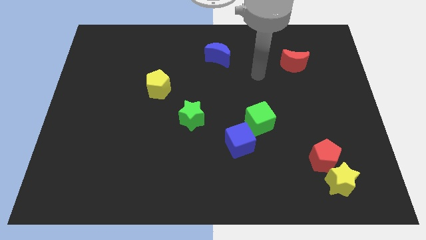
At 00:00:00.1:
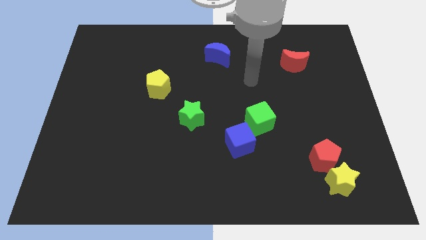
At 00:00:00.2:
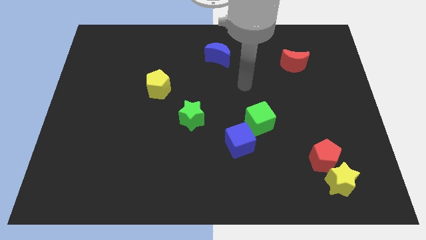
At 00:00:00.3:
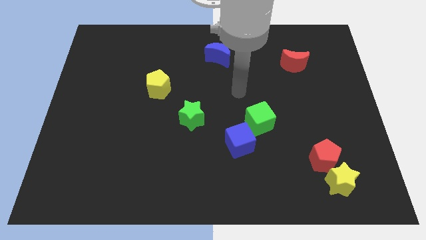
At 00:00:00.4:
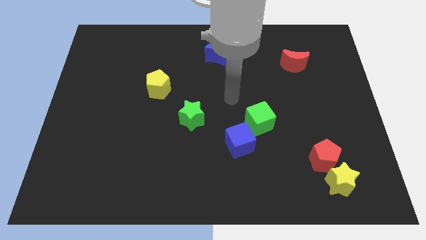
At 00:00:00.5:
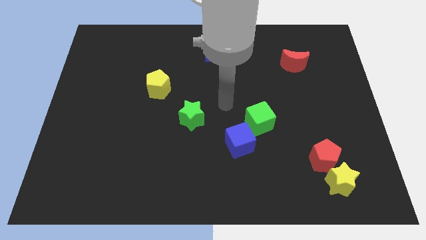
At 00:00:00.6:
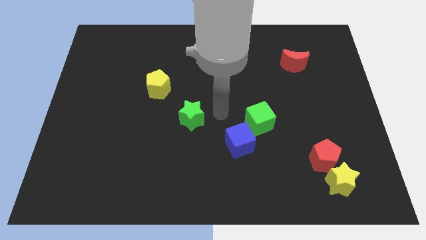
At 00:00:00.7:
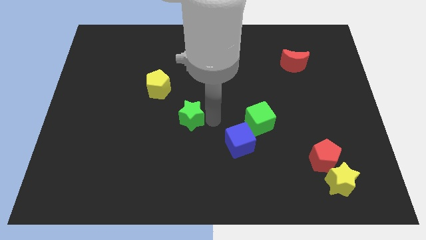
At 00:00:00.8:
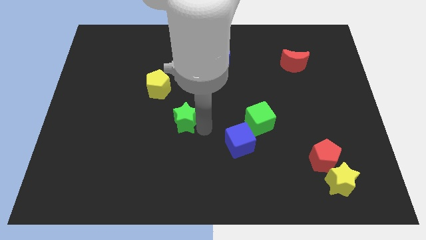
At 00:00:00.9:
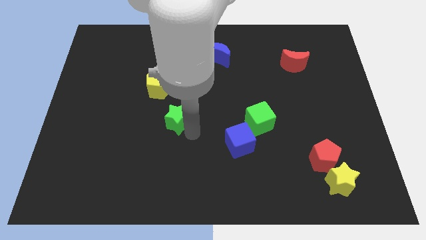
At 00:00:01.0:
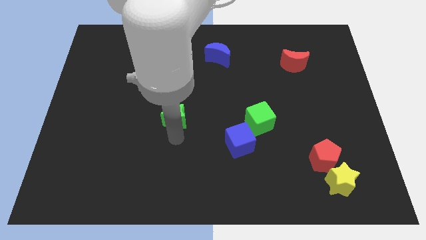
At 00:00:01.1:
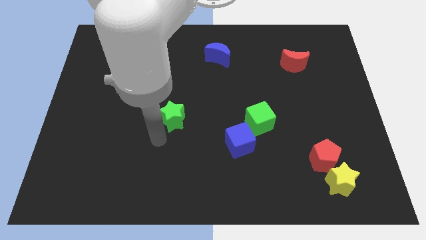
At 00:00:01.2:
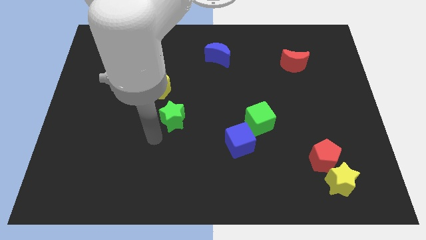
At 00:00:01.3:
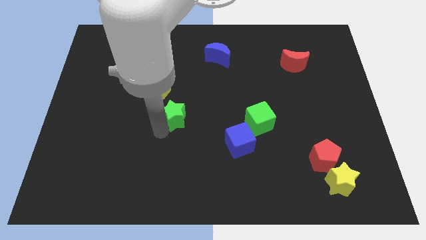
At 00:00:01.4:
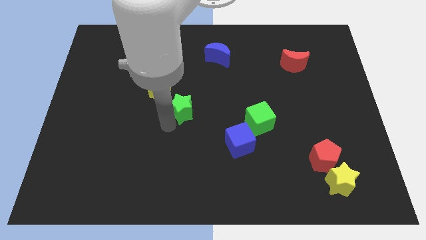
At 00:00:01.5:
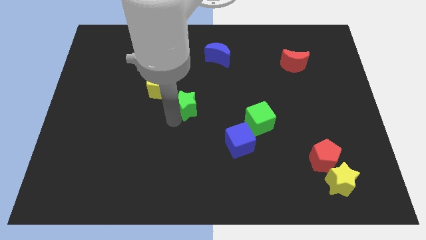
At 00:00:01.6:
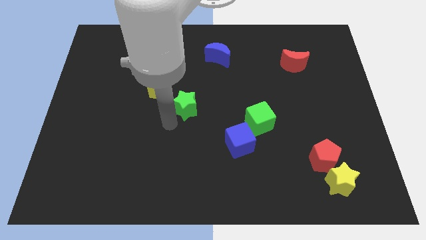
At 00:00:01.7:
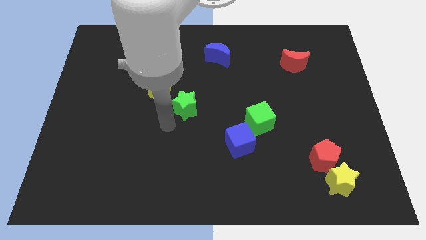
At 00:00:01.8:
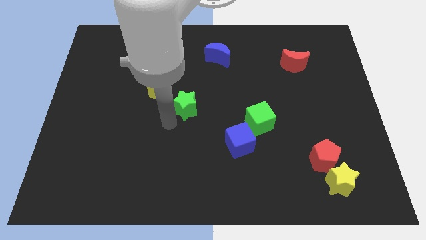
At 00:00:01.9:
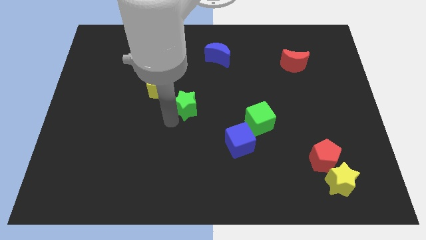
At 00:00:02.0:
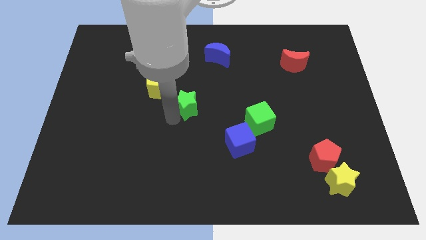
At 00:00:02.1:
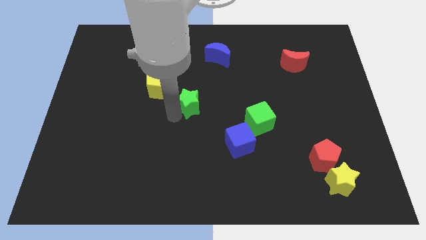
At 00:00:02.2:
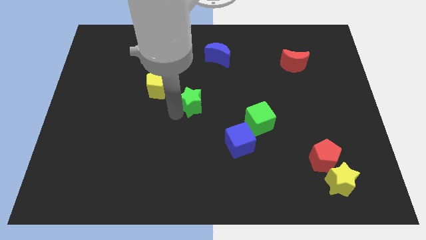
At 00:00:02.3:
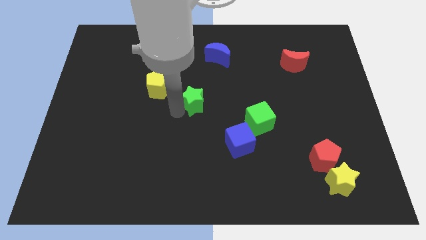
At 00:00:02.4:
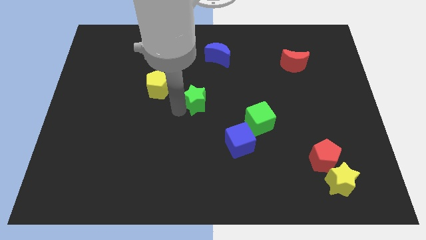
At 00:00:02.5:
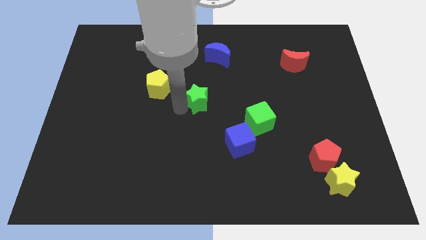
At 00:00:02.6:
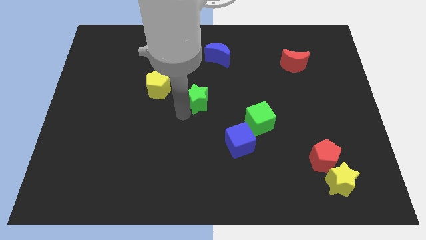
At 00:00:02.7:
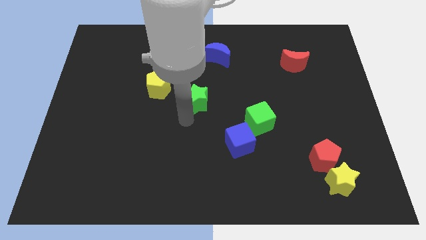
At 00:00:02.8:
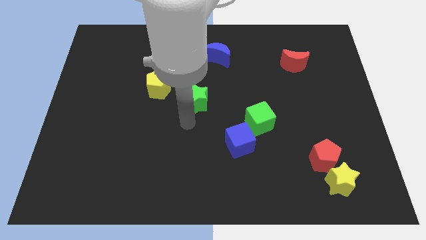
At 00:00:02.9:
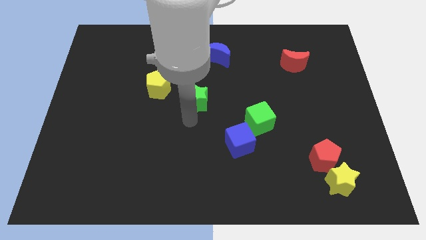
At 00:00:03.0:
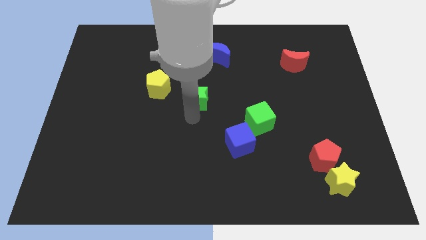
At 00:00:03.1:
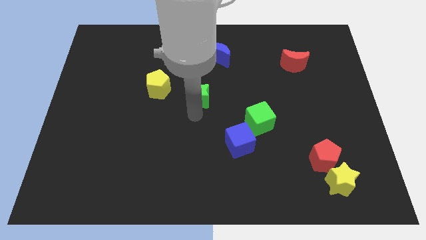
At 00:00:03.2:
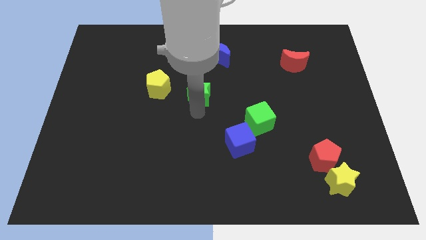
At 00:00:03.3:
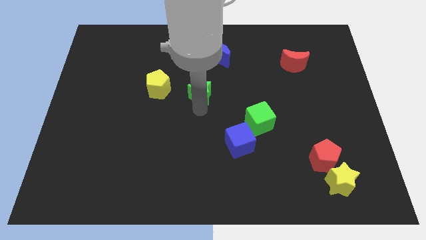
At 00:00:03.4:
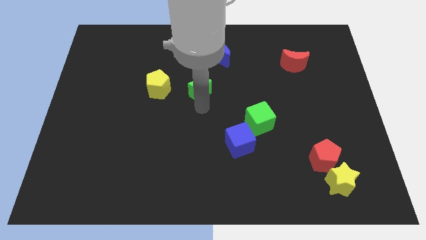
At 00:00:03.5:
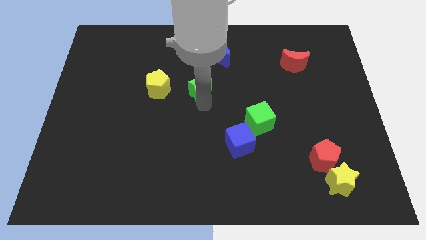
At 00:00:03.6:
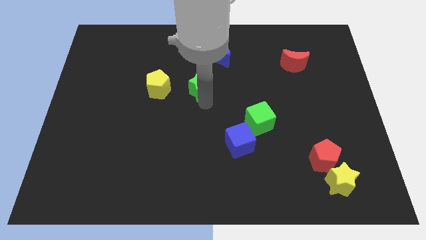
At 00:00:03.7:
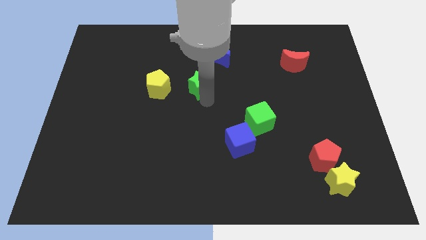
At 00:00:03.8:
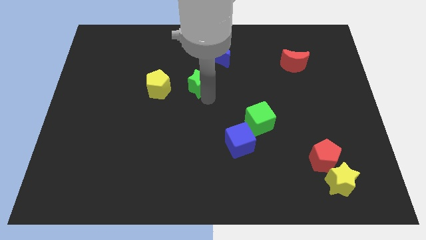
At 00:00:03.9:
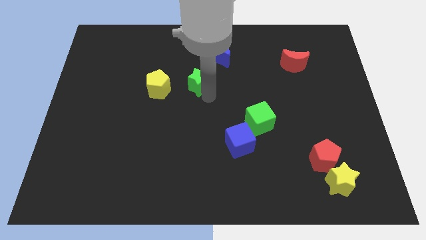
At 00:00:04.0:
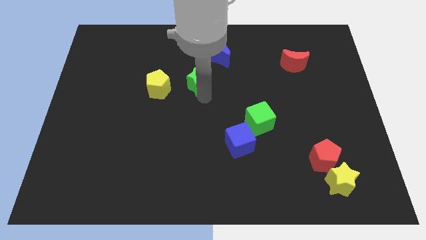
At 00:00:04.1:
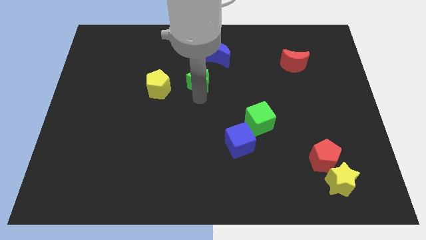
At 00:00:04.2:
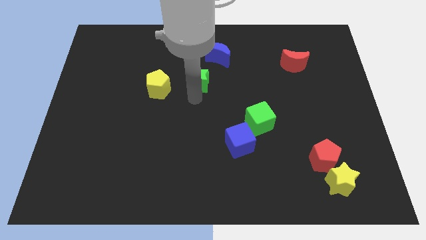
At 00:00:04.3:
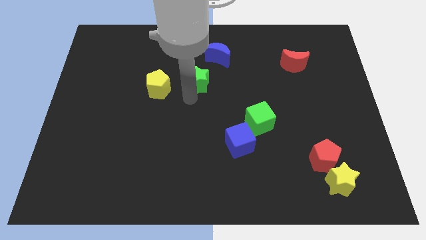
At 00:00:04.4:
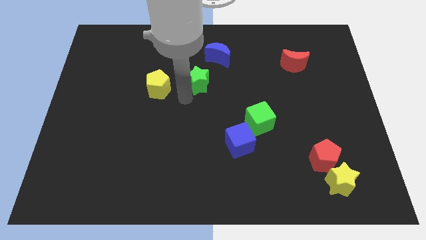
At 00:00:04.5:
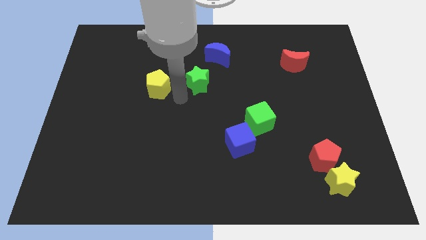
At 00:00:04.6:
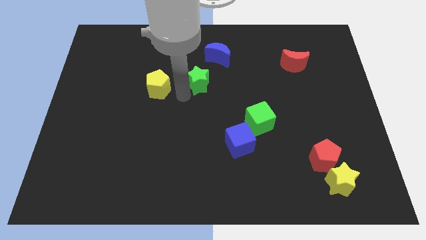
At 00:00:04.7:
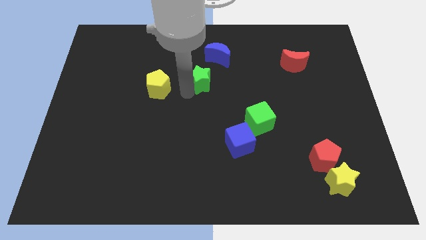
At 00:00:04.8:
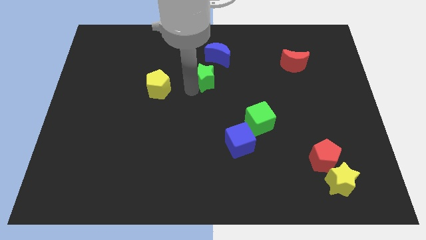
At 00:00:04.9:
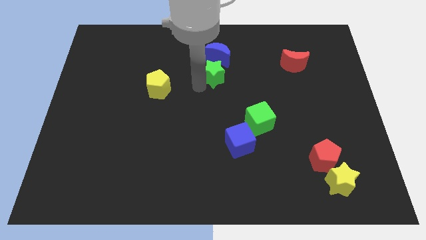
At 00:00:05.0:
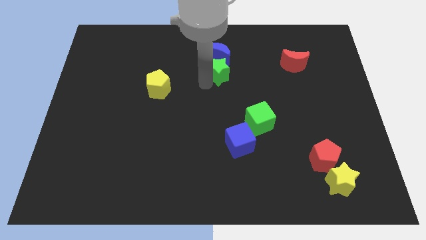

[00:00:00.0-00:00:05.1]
slide the green star to the blue moon

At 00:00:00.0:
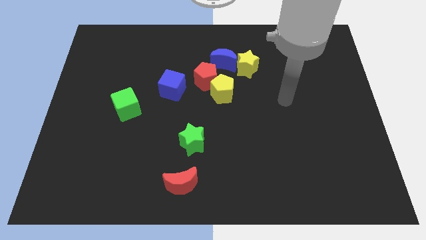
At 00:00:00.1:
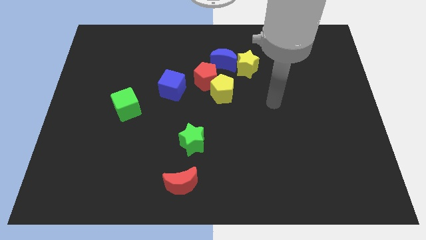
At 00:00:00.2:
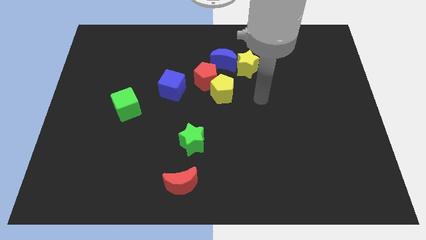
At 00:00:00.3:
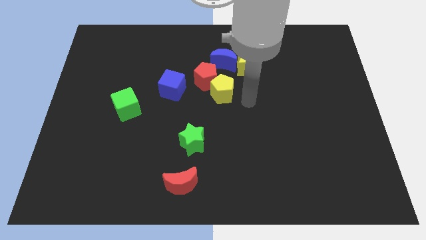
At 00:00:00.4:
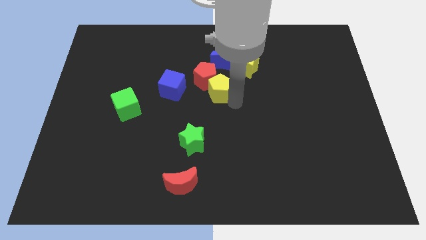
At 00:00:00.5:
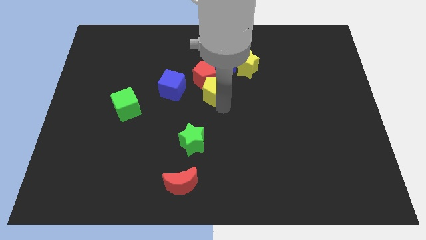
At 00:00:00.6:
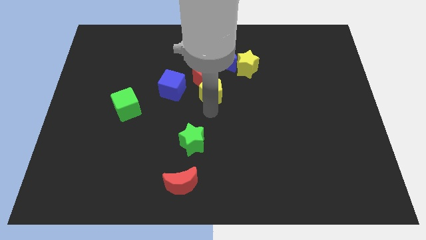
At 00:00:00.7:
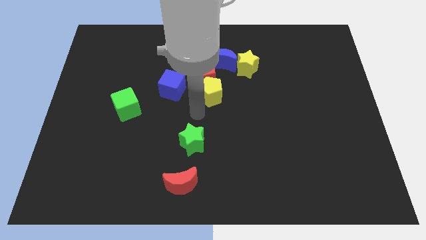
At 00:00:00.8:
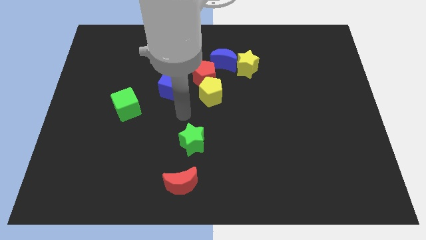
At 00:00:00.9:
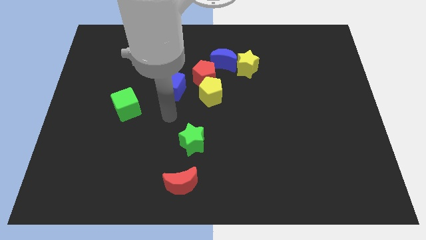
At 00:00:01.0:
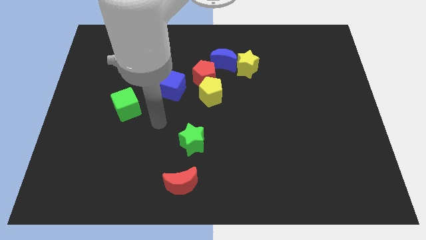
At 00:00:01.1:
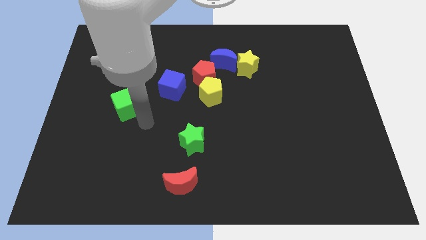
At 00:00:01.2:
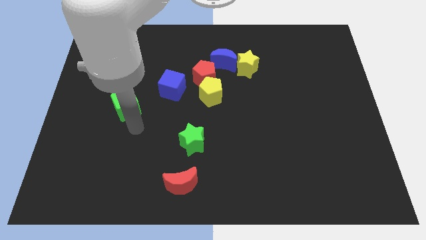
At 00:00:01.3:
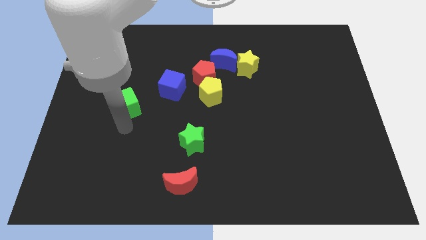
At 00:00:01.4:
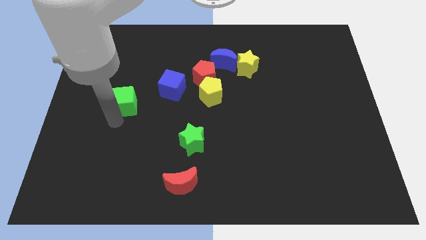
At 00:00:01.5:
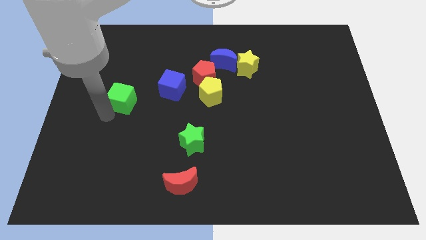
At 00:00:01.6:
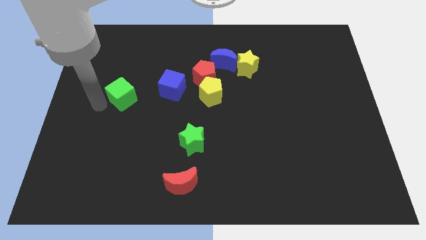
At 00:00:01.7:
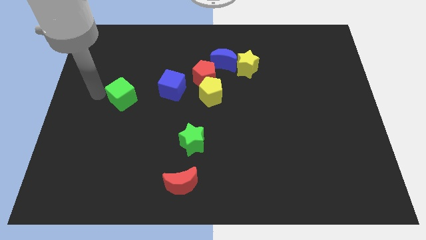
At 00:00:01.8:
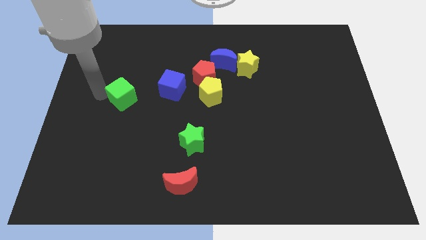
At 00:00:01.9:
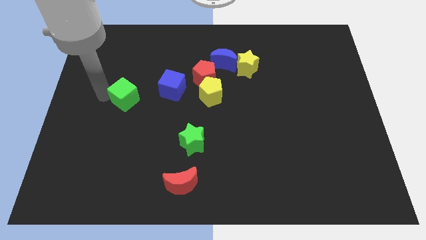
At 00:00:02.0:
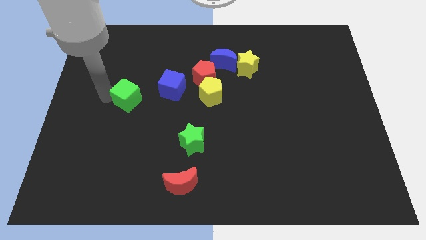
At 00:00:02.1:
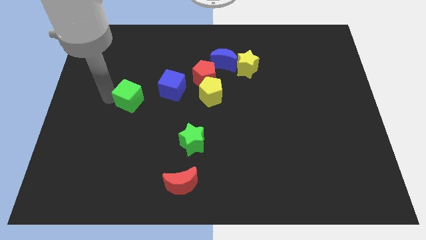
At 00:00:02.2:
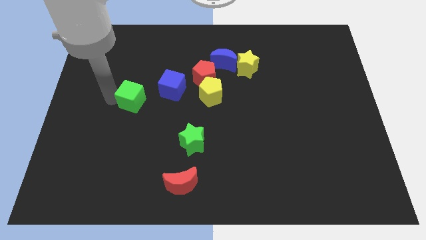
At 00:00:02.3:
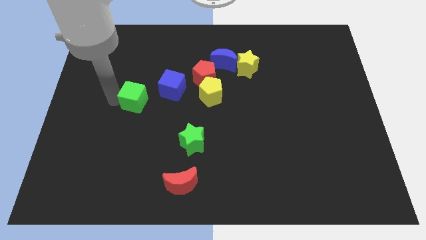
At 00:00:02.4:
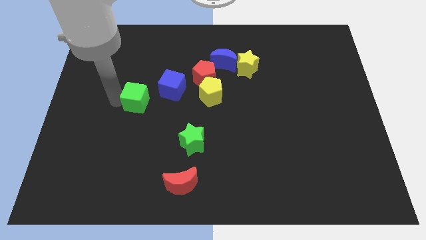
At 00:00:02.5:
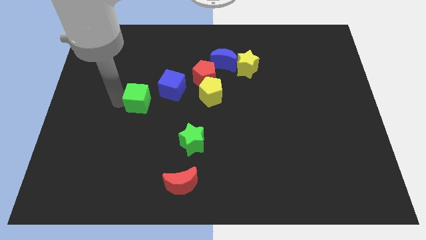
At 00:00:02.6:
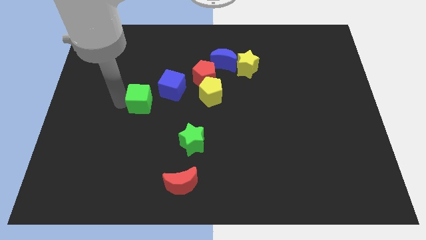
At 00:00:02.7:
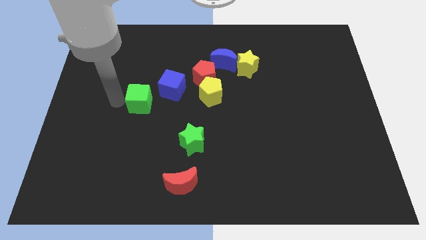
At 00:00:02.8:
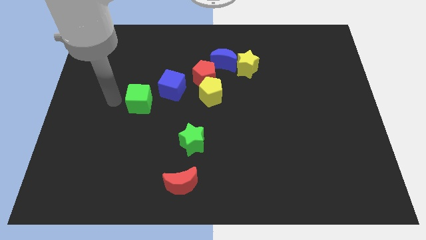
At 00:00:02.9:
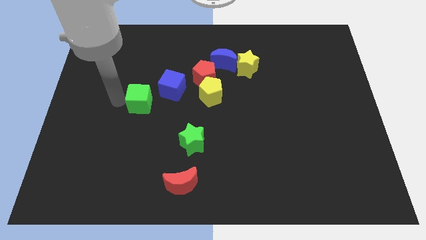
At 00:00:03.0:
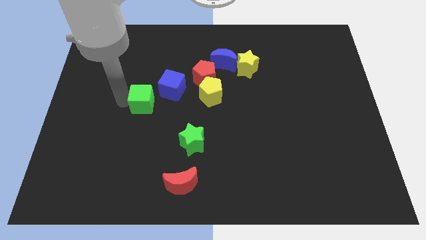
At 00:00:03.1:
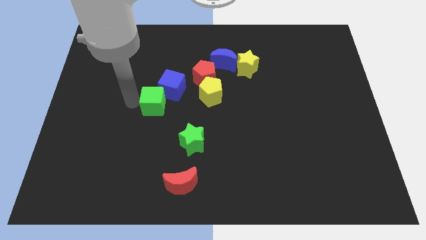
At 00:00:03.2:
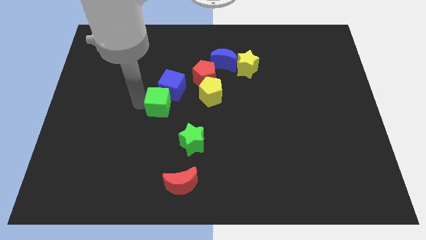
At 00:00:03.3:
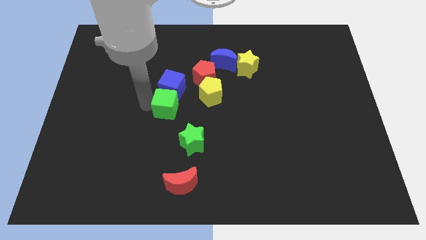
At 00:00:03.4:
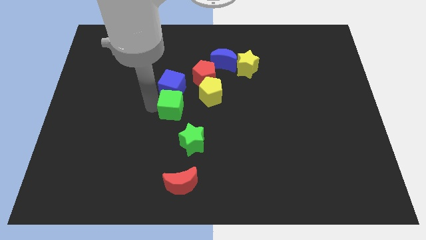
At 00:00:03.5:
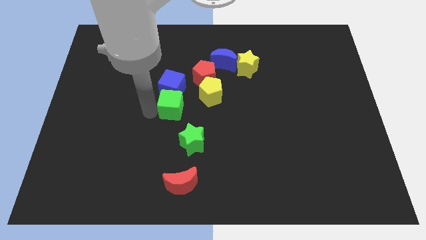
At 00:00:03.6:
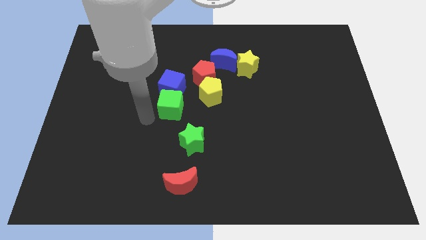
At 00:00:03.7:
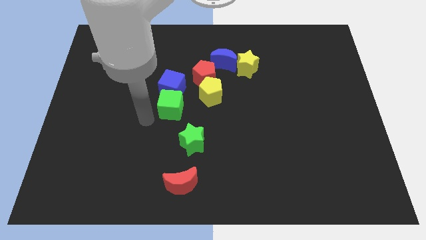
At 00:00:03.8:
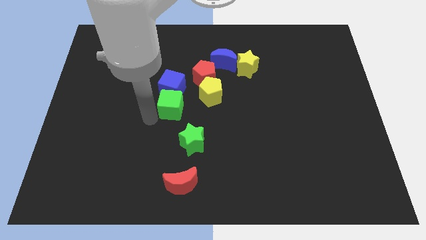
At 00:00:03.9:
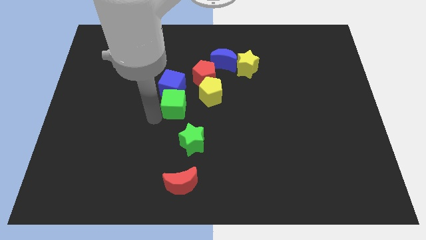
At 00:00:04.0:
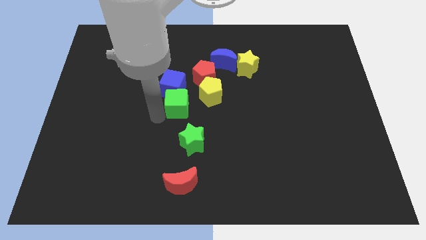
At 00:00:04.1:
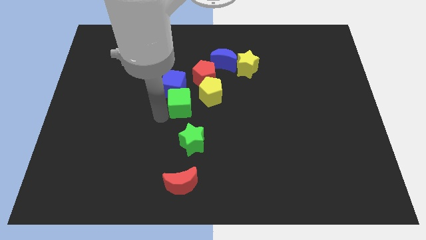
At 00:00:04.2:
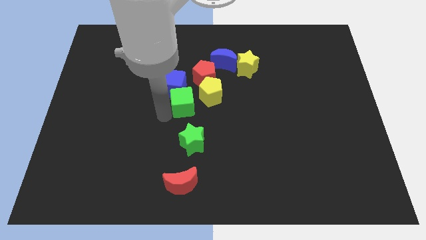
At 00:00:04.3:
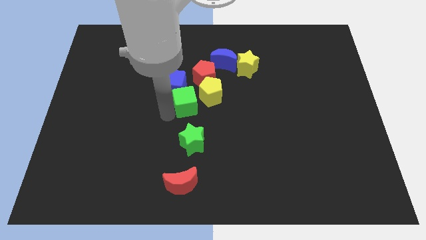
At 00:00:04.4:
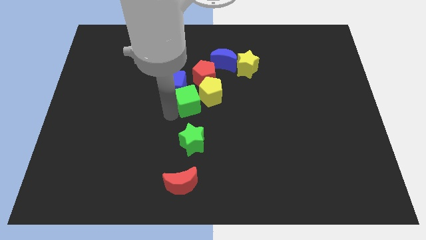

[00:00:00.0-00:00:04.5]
put the green cube towards the yellow pentagon
